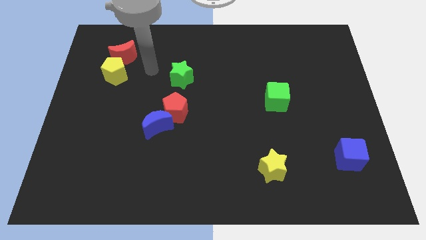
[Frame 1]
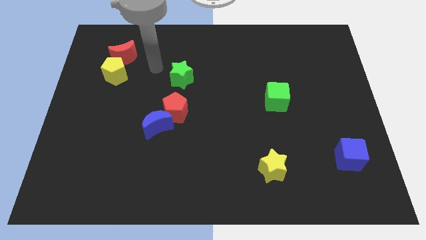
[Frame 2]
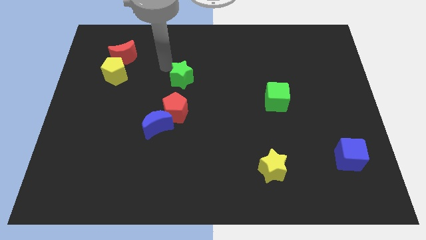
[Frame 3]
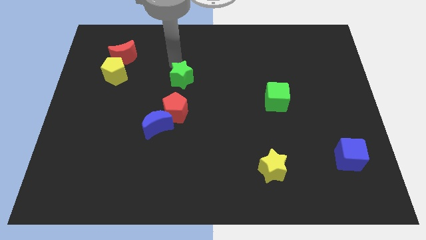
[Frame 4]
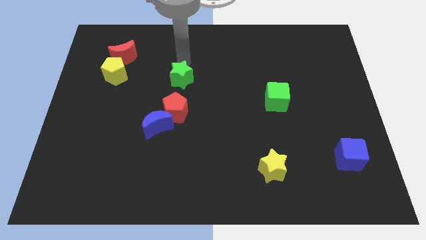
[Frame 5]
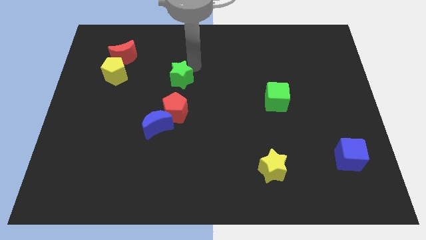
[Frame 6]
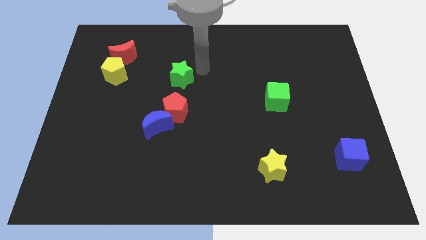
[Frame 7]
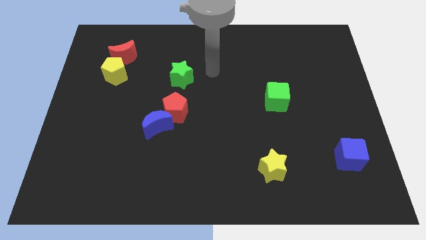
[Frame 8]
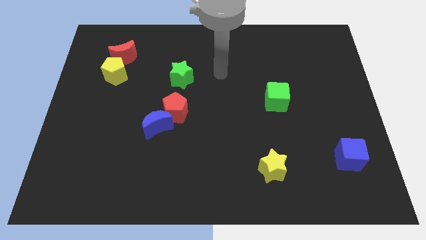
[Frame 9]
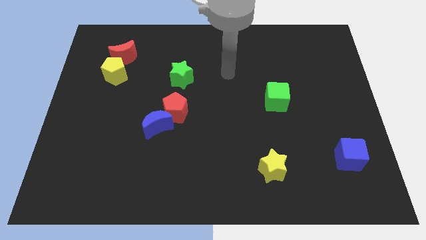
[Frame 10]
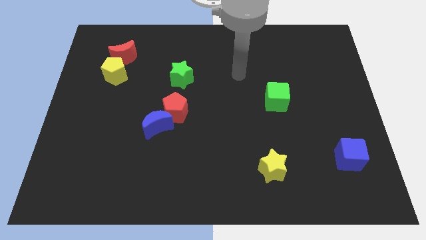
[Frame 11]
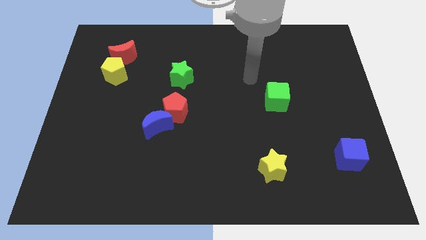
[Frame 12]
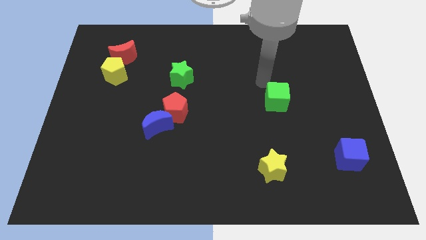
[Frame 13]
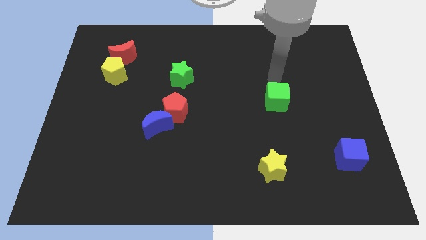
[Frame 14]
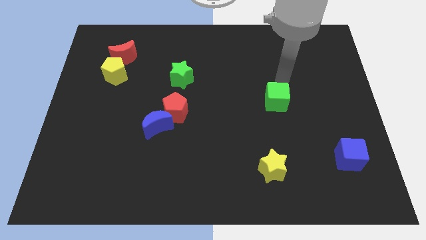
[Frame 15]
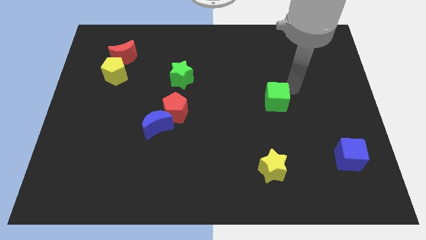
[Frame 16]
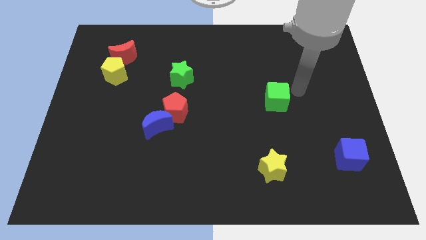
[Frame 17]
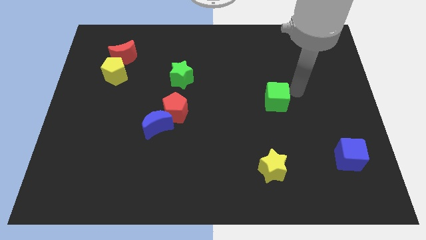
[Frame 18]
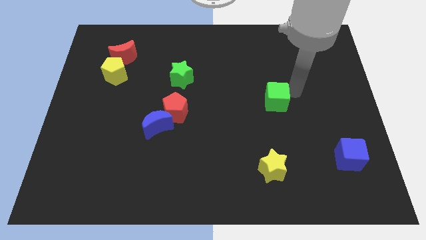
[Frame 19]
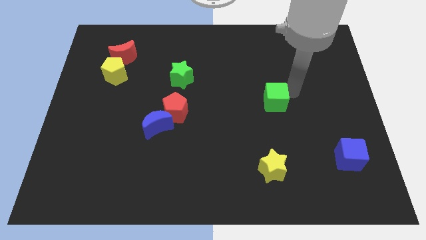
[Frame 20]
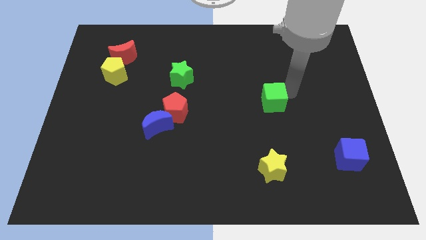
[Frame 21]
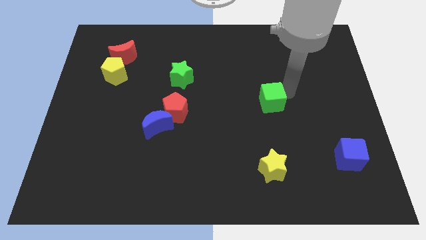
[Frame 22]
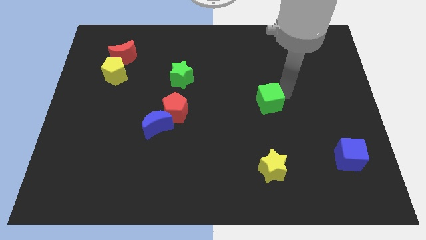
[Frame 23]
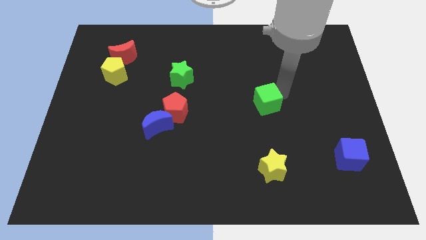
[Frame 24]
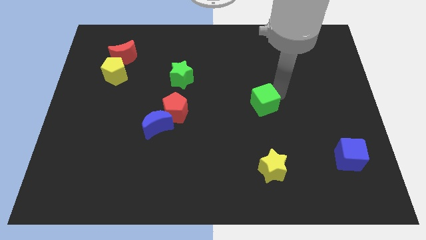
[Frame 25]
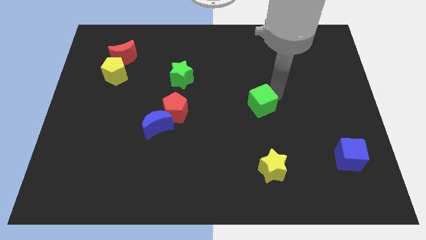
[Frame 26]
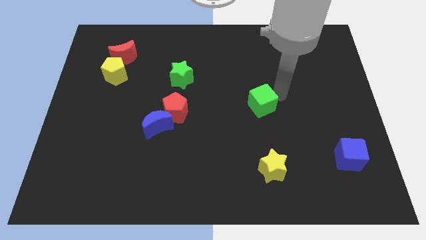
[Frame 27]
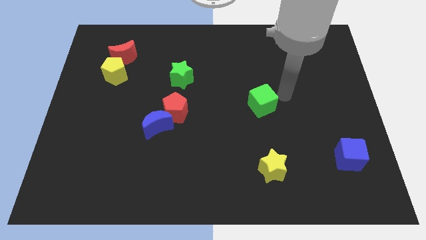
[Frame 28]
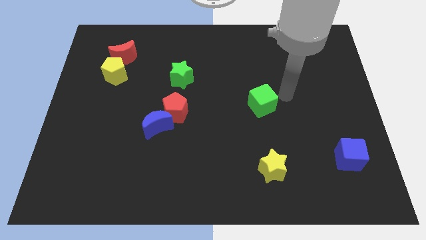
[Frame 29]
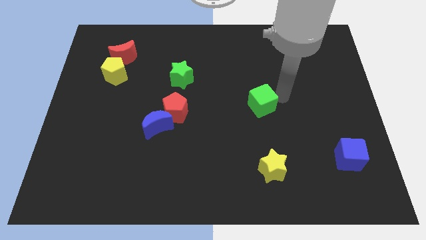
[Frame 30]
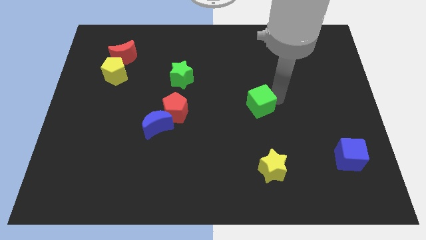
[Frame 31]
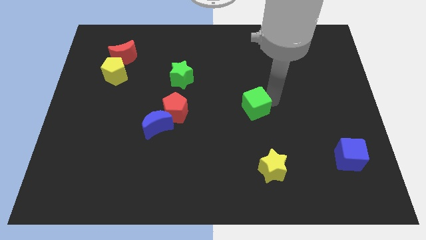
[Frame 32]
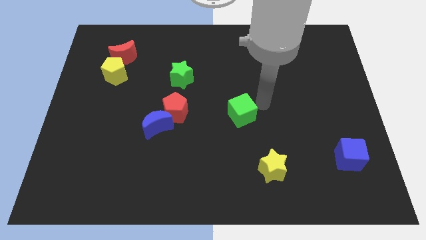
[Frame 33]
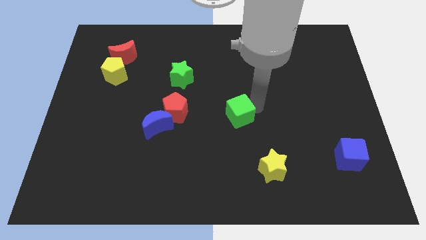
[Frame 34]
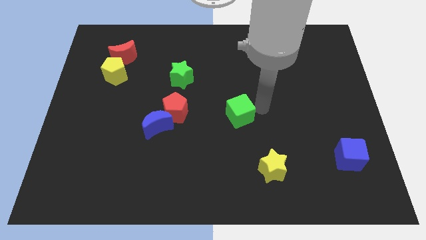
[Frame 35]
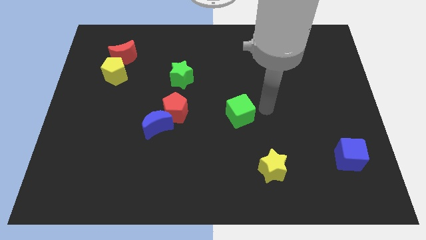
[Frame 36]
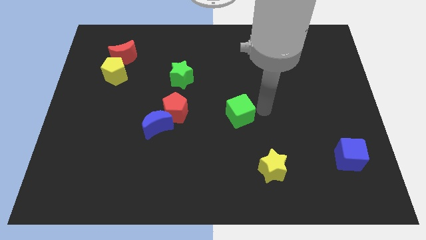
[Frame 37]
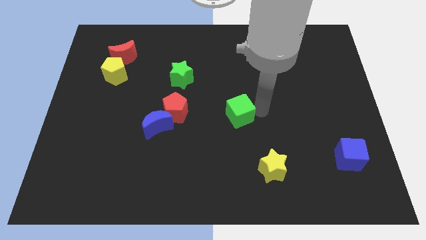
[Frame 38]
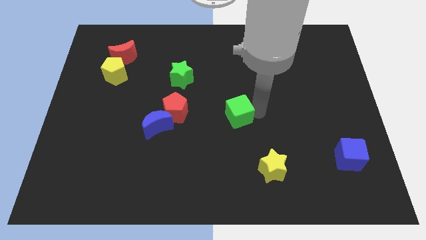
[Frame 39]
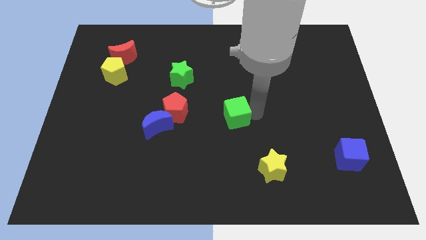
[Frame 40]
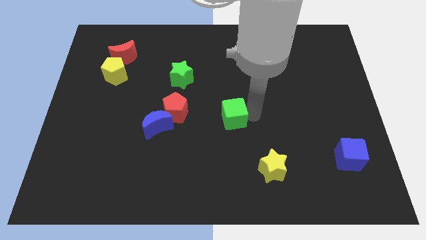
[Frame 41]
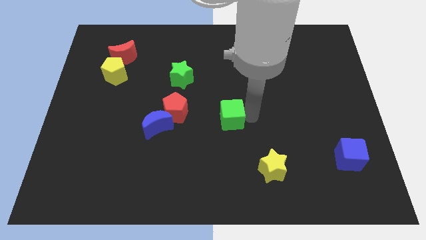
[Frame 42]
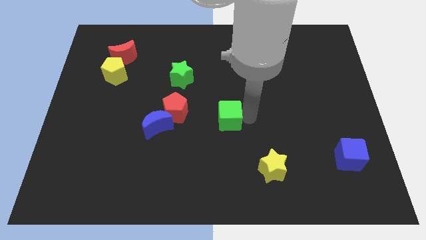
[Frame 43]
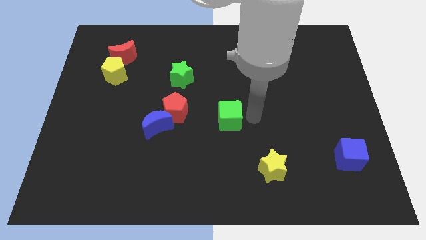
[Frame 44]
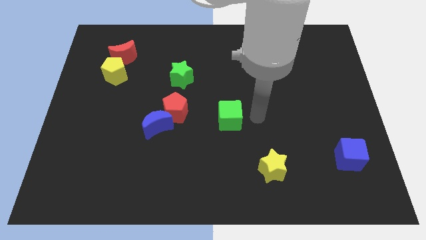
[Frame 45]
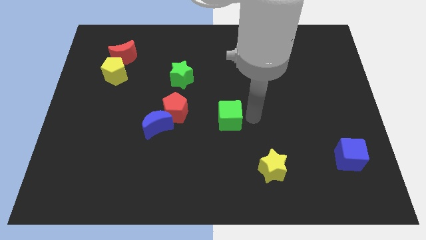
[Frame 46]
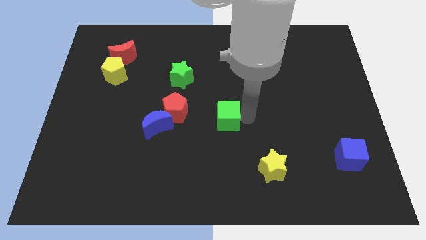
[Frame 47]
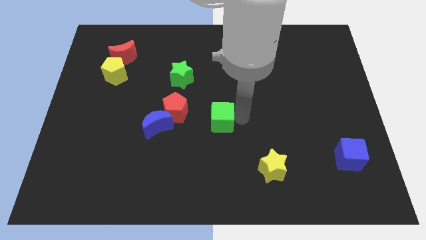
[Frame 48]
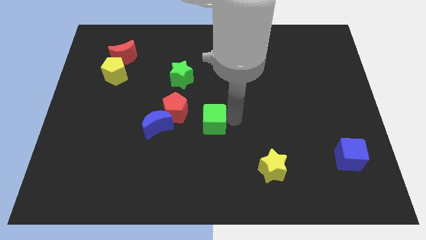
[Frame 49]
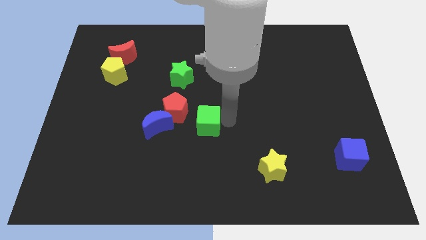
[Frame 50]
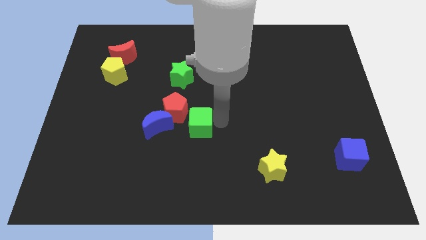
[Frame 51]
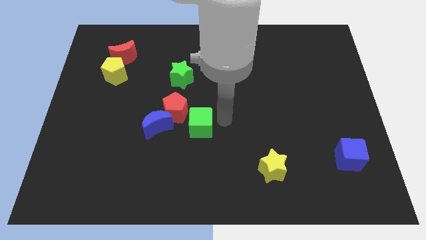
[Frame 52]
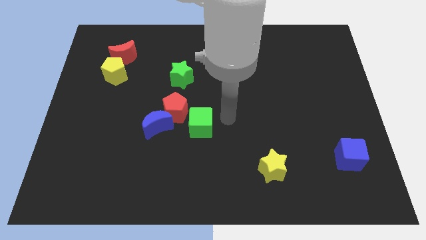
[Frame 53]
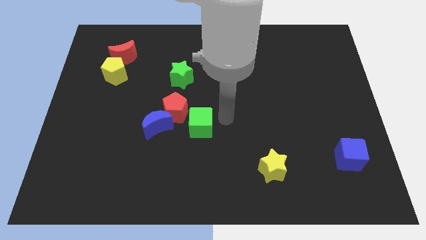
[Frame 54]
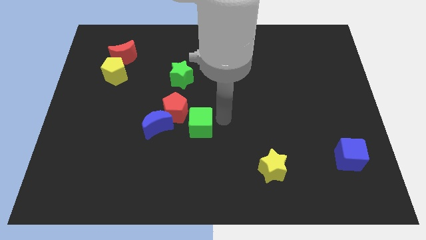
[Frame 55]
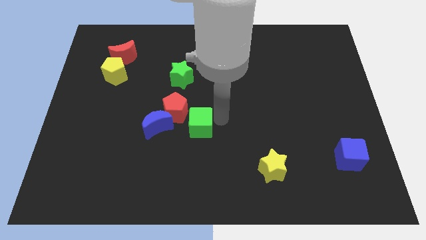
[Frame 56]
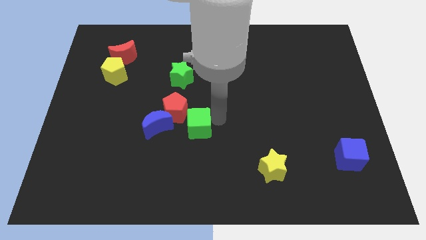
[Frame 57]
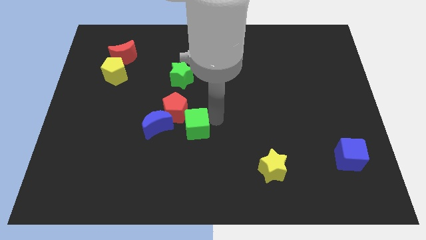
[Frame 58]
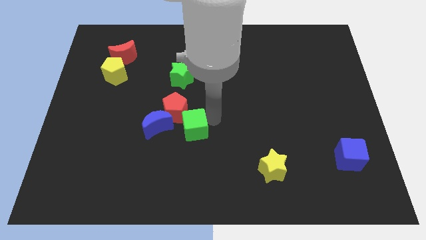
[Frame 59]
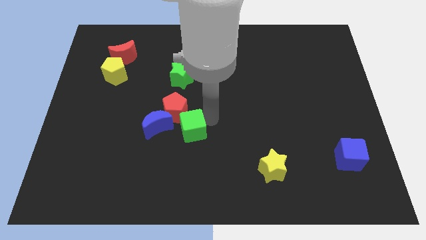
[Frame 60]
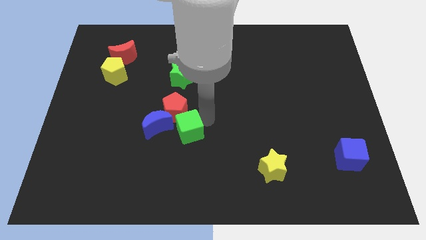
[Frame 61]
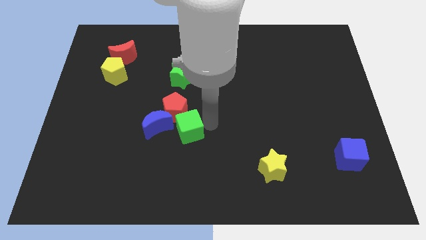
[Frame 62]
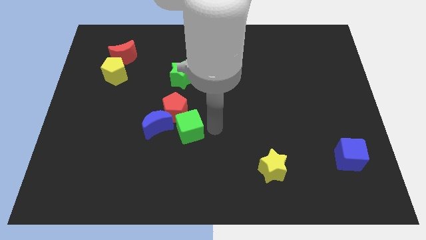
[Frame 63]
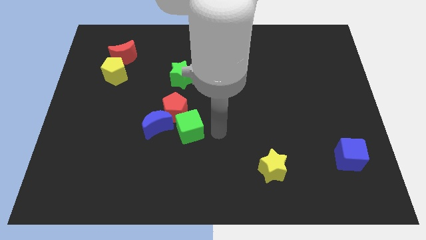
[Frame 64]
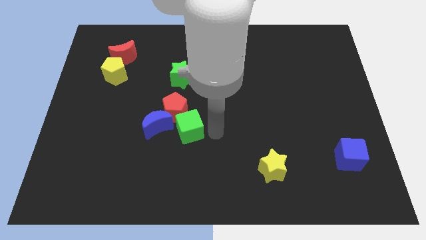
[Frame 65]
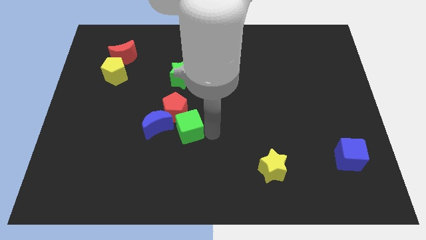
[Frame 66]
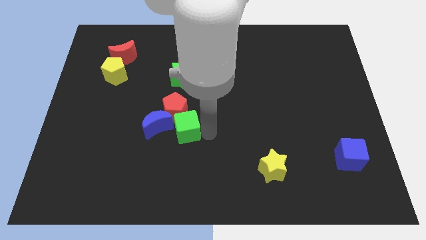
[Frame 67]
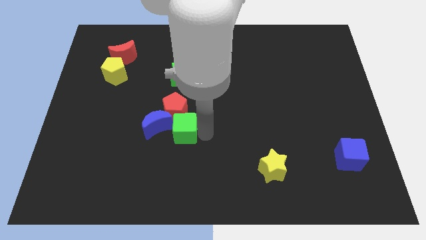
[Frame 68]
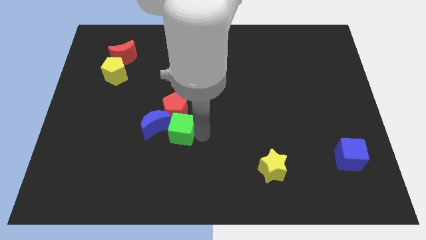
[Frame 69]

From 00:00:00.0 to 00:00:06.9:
move the green cube to the blue moon

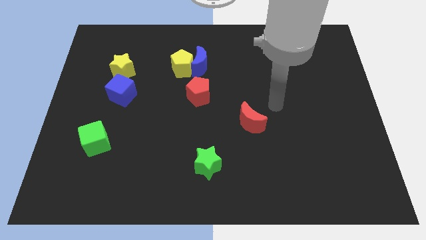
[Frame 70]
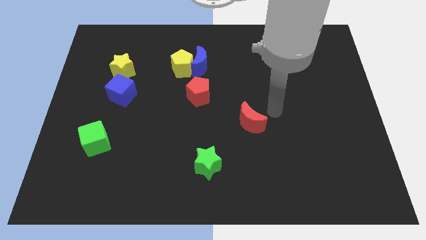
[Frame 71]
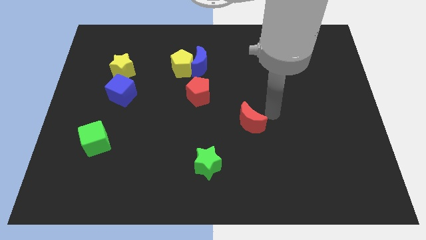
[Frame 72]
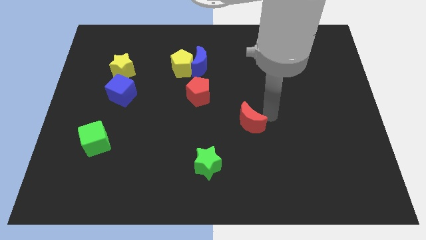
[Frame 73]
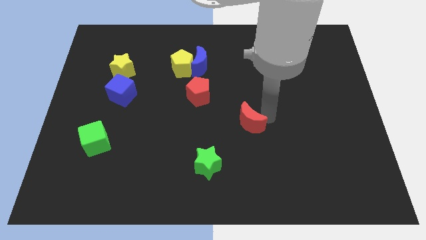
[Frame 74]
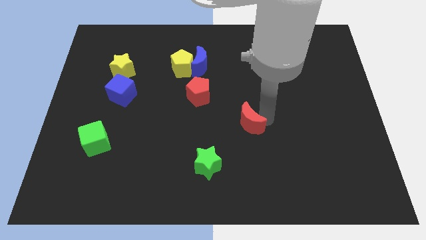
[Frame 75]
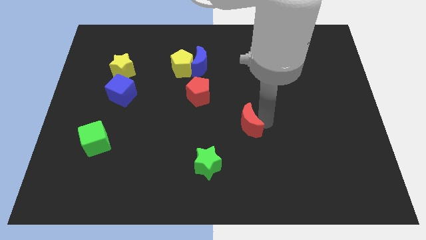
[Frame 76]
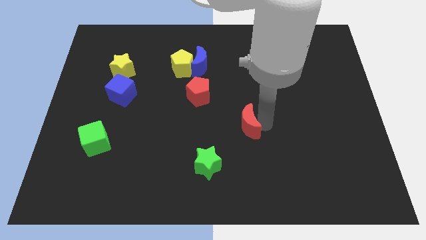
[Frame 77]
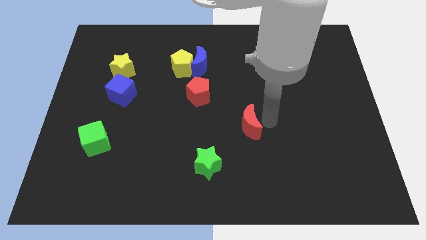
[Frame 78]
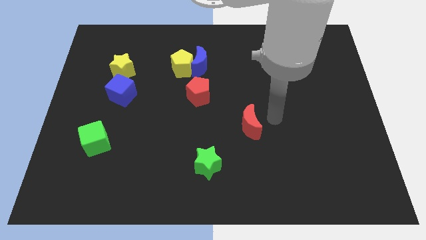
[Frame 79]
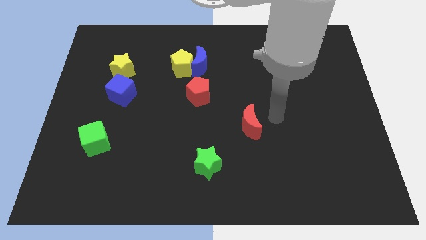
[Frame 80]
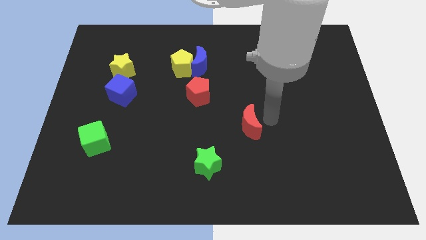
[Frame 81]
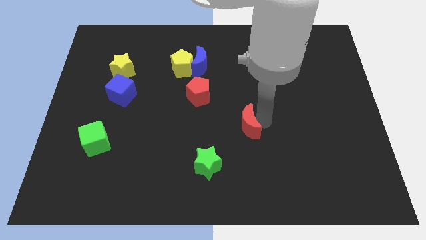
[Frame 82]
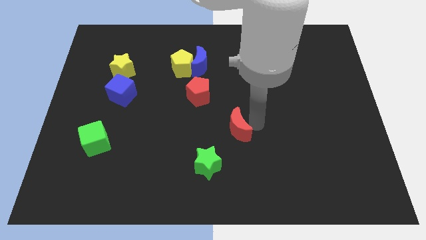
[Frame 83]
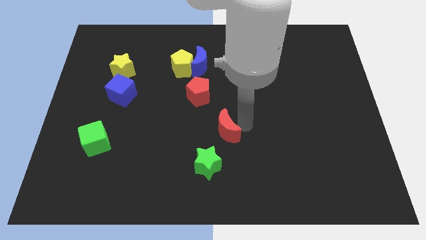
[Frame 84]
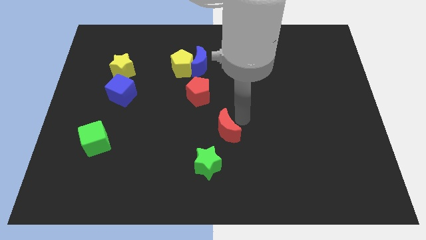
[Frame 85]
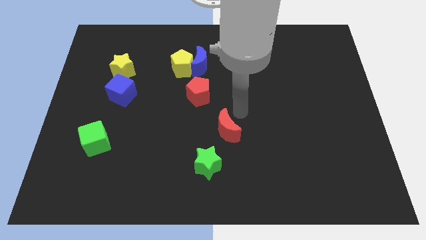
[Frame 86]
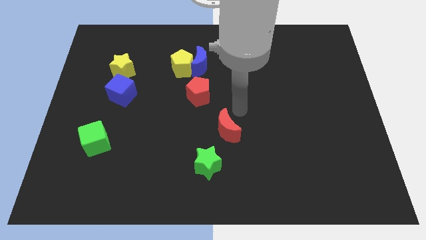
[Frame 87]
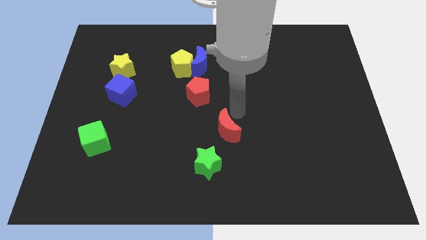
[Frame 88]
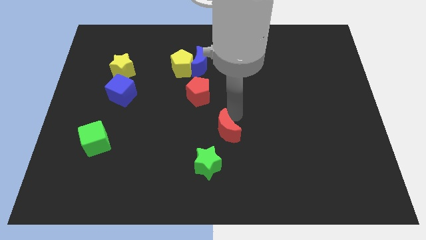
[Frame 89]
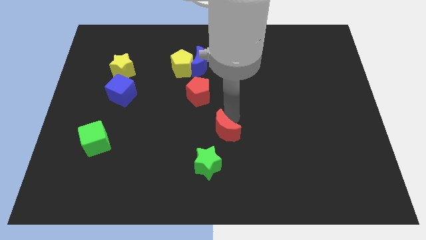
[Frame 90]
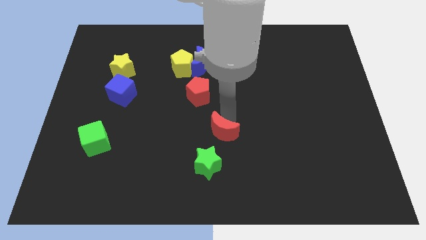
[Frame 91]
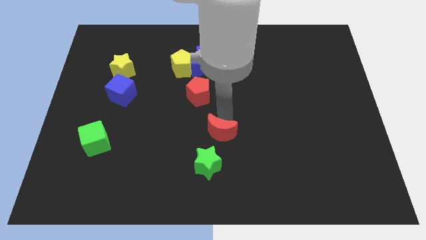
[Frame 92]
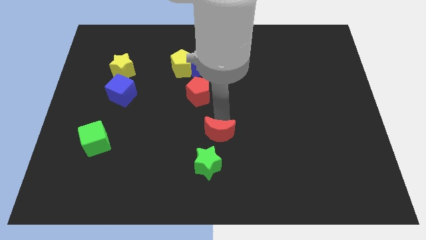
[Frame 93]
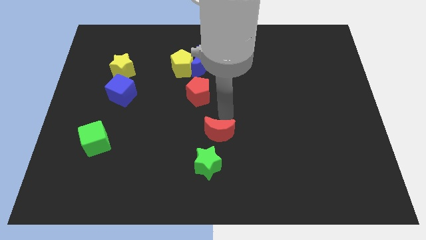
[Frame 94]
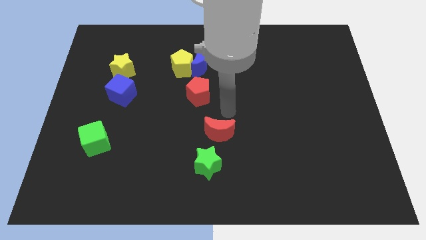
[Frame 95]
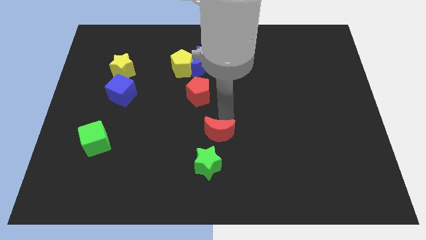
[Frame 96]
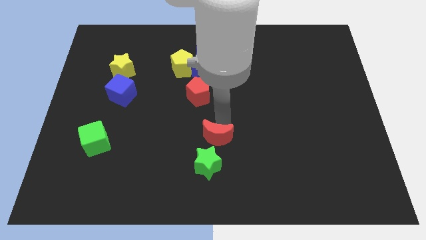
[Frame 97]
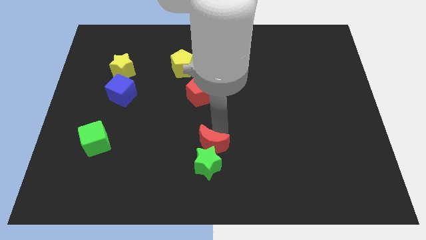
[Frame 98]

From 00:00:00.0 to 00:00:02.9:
put the red moon close to the green star
